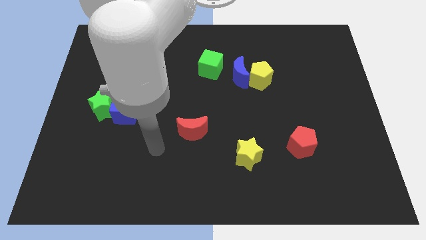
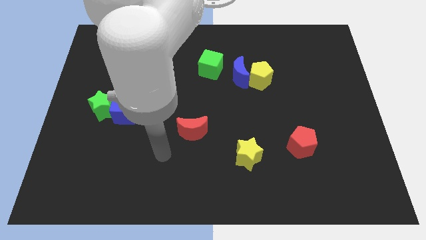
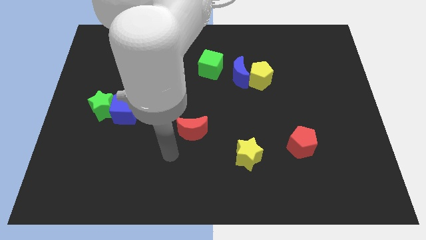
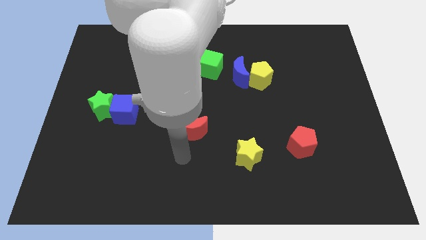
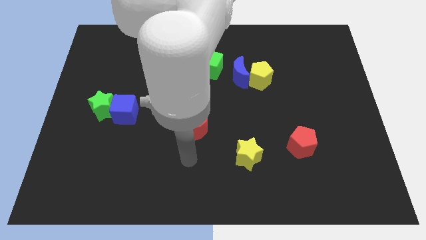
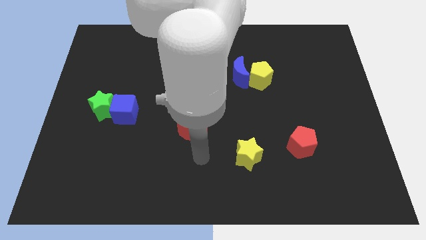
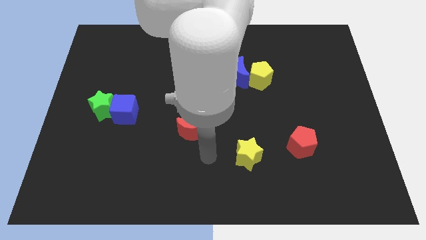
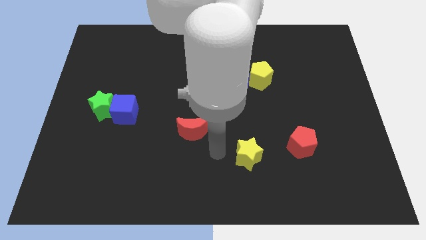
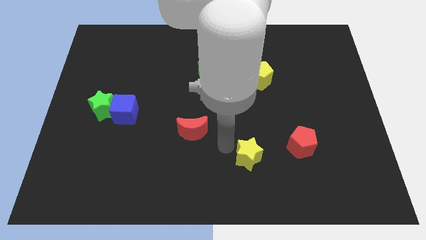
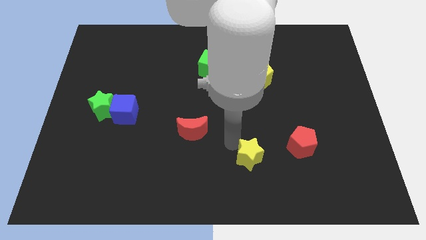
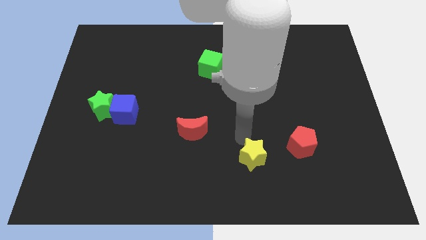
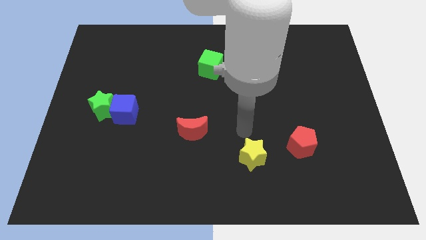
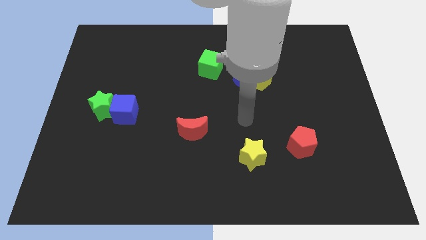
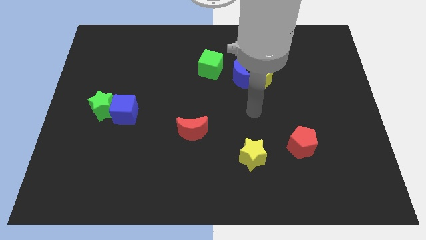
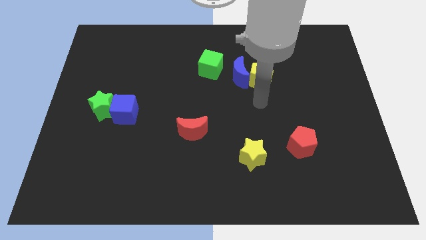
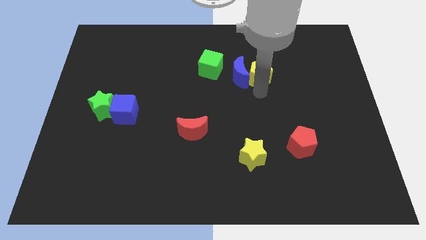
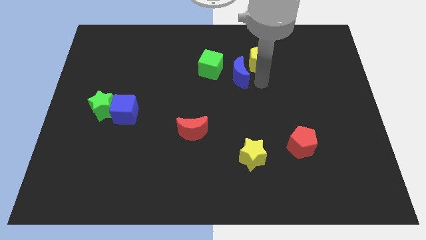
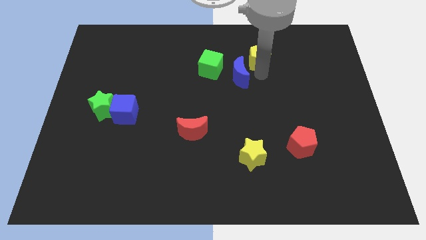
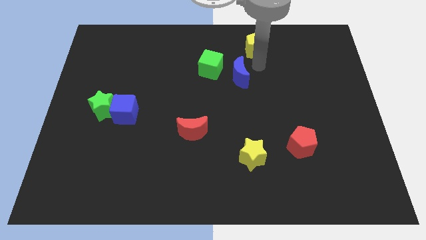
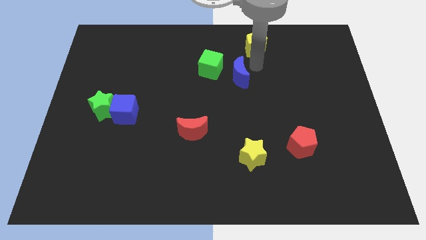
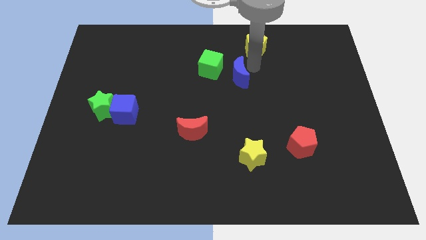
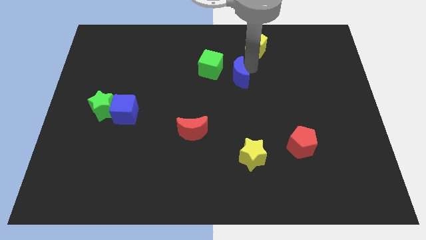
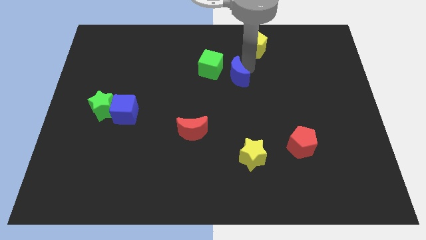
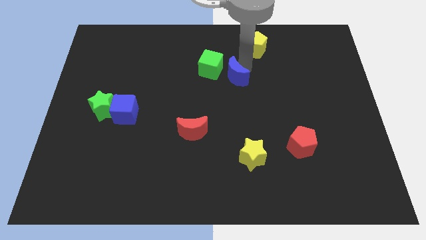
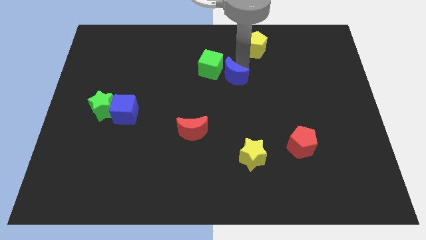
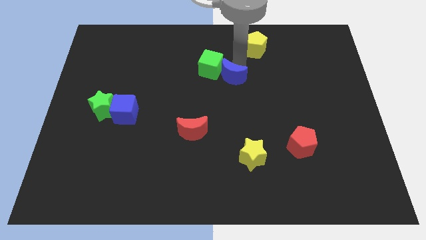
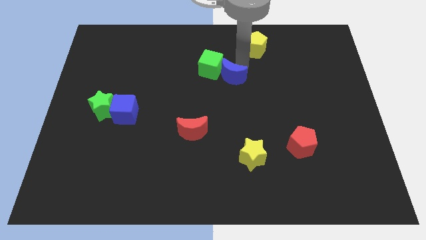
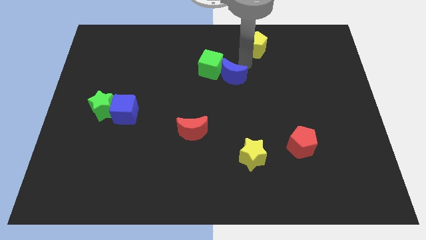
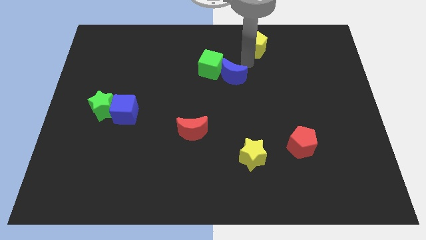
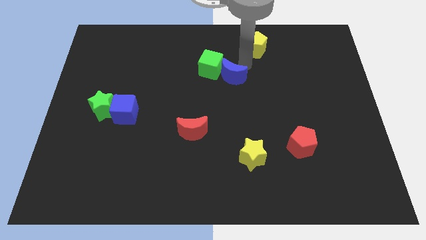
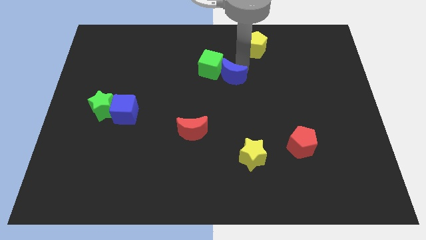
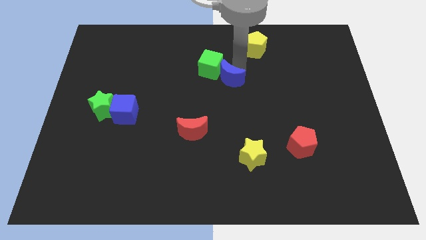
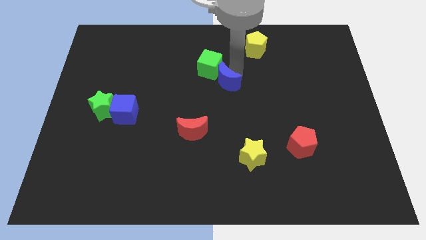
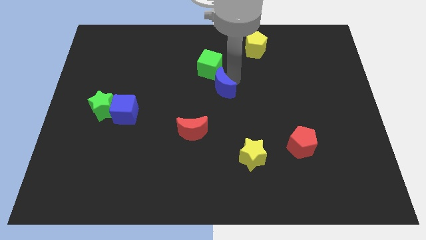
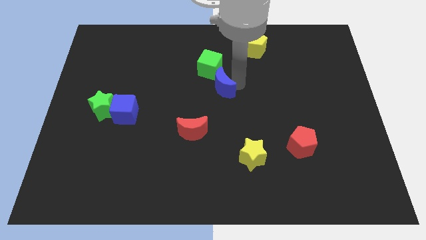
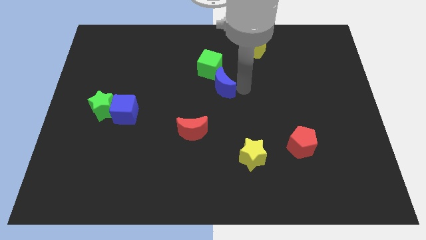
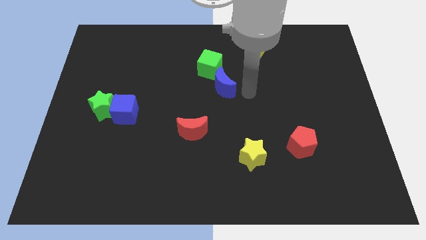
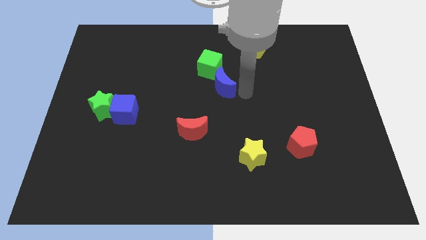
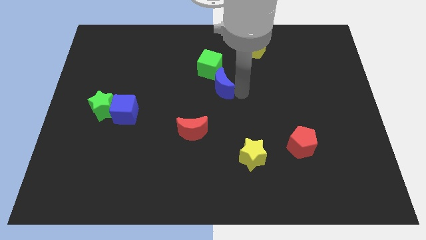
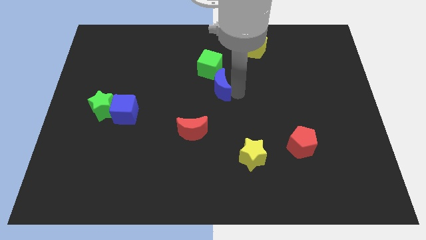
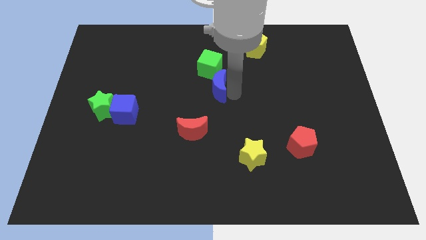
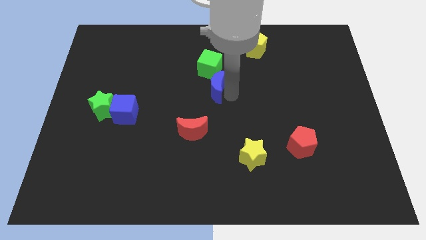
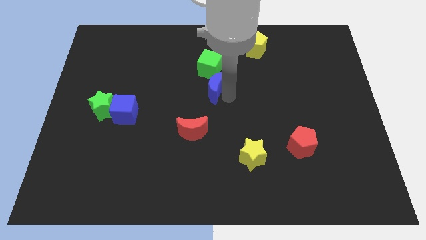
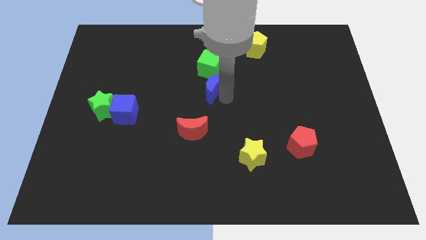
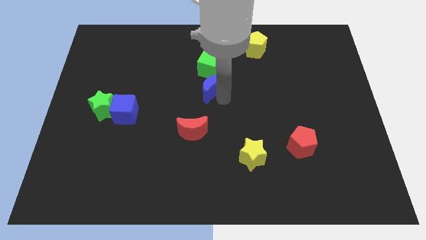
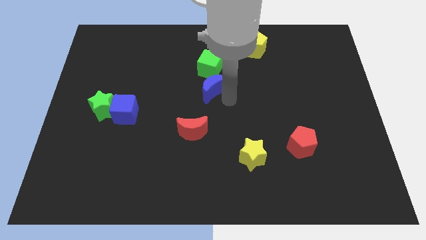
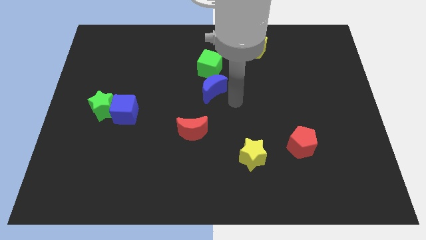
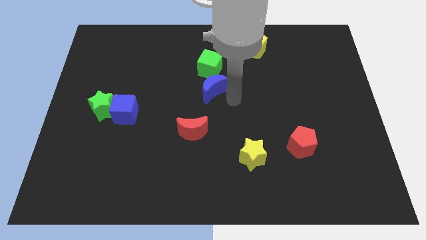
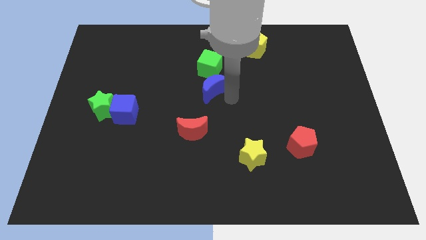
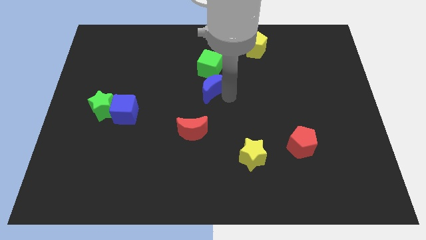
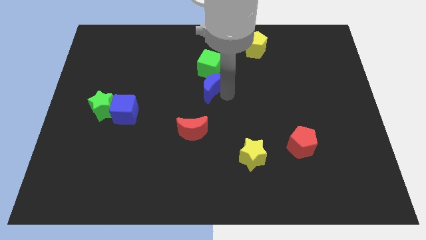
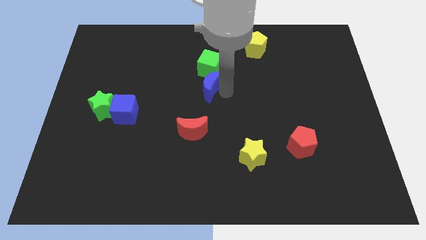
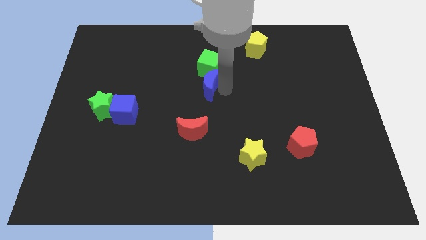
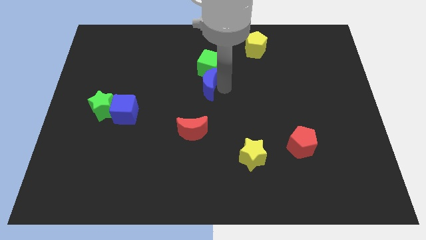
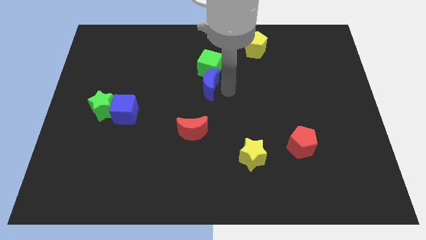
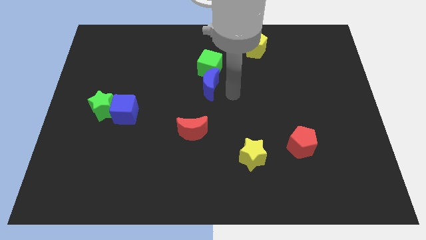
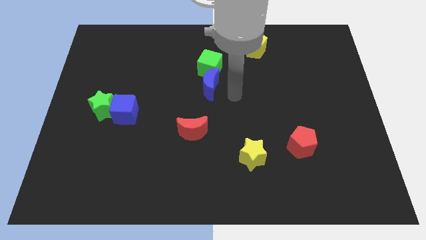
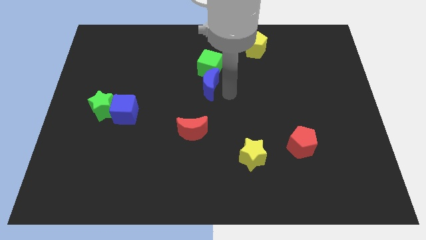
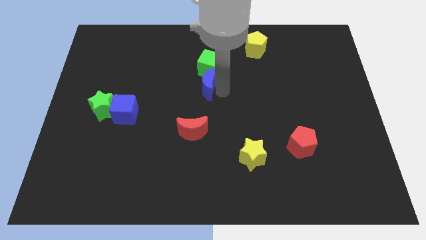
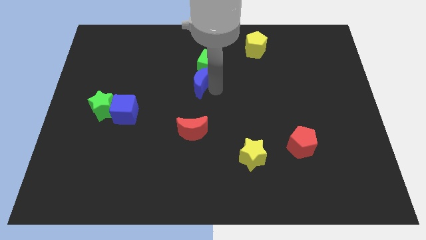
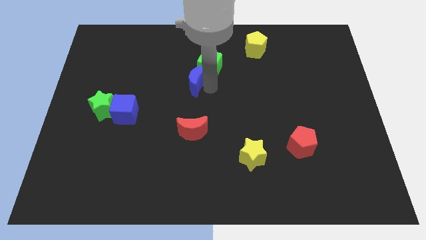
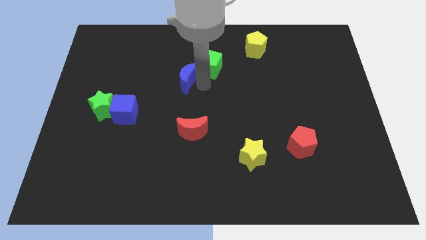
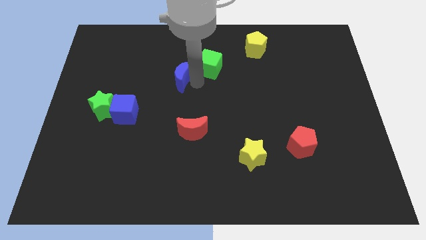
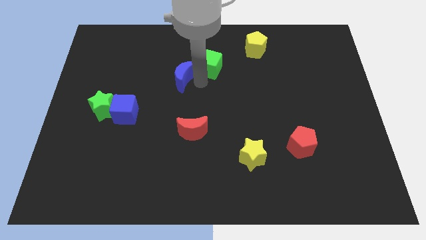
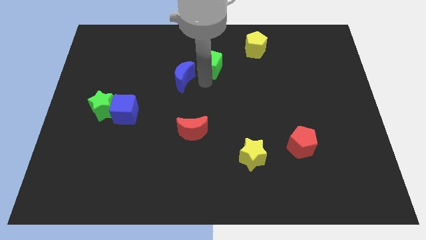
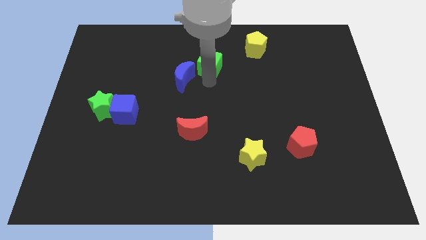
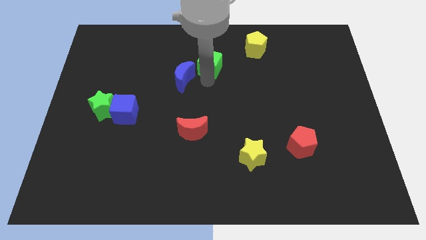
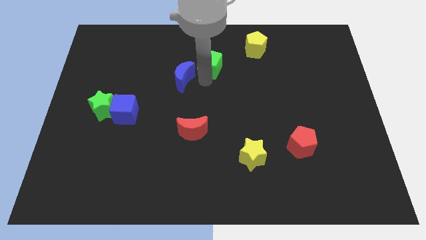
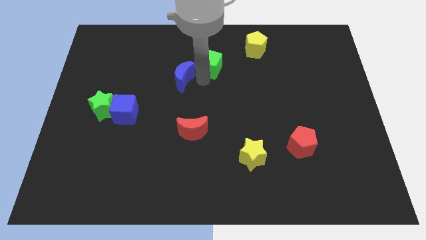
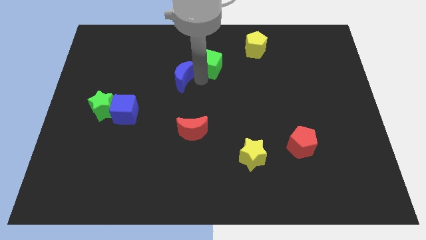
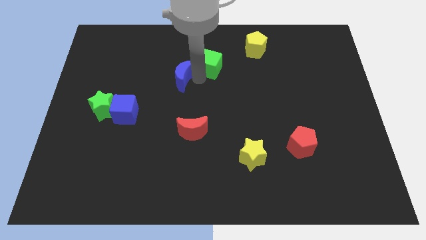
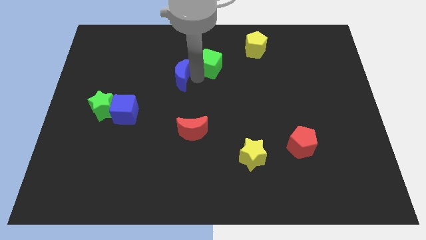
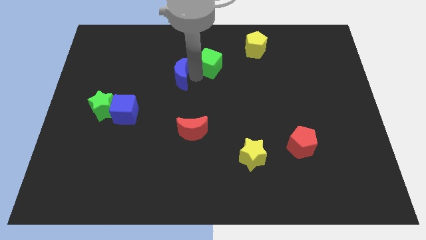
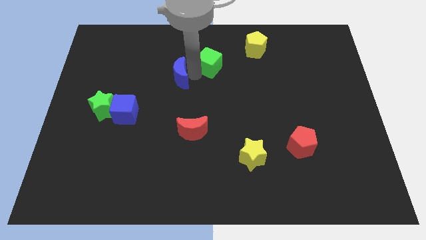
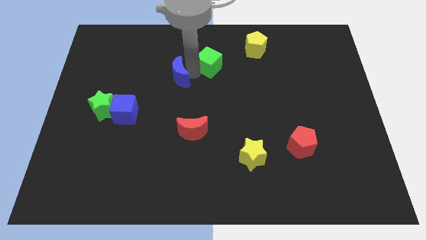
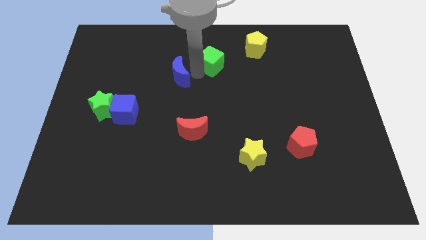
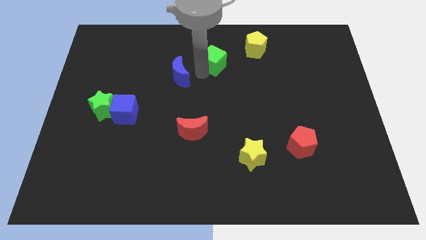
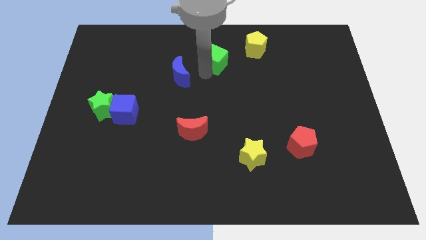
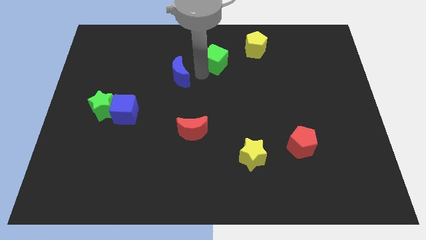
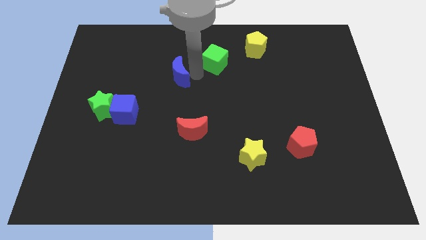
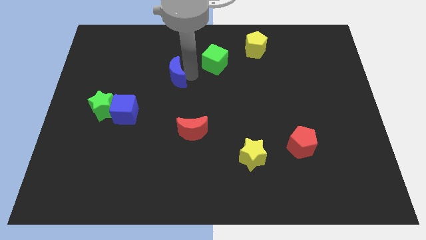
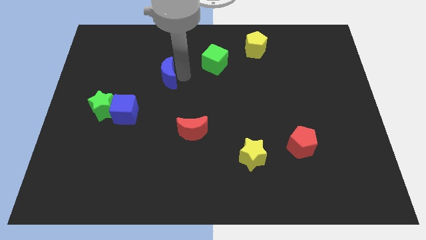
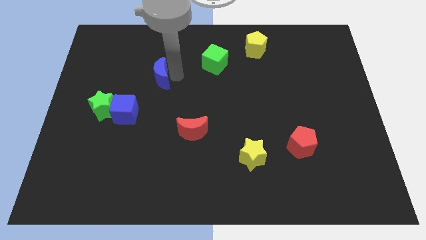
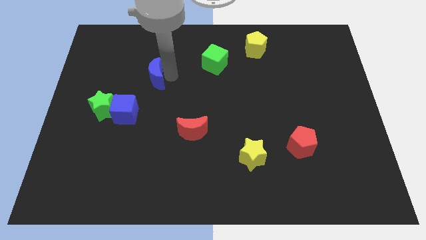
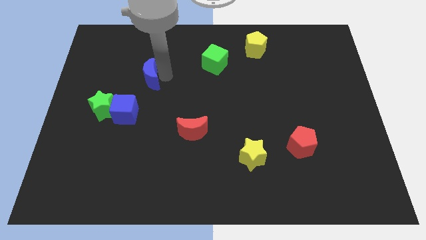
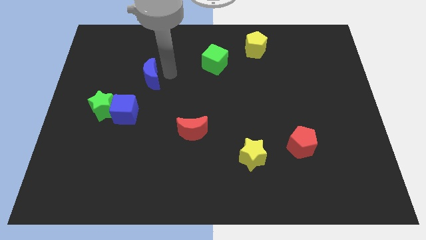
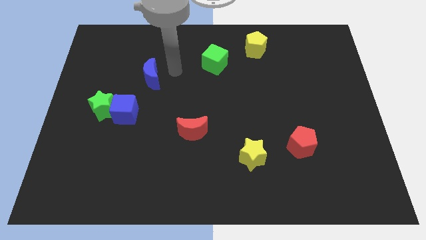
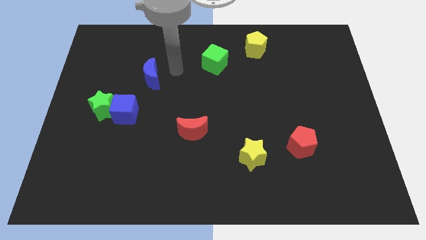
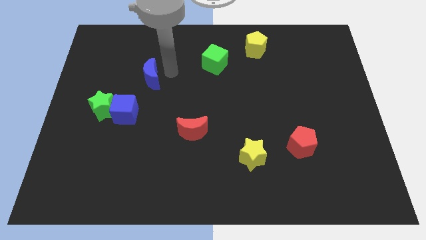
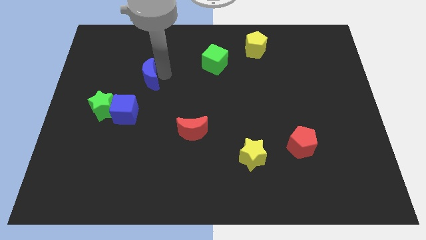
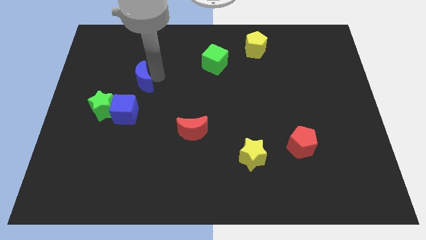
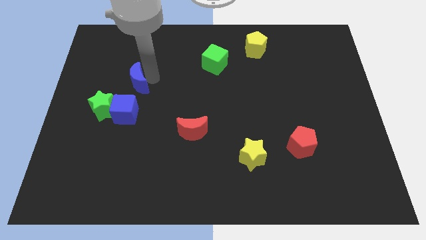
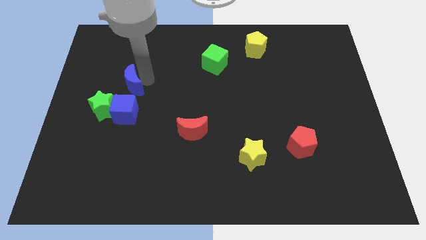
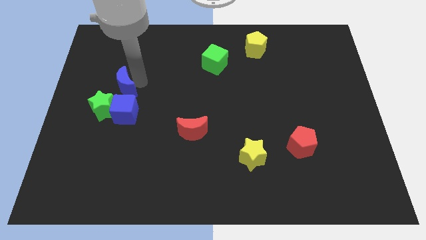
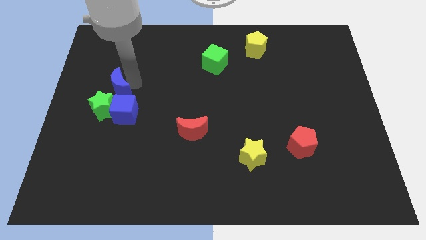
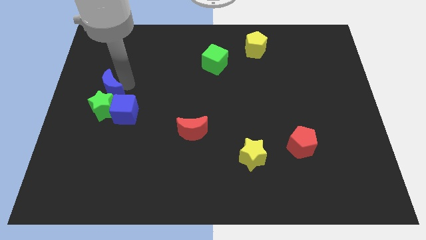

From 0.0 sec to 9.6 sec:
push the blue moon towards the green star
